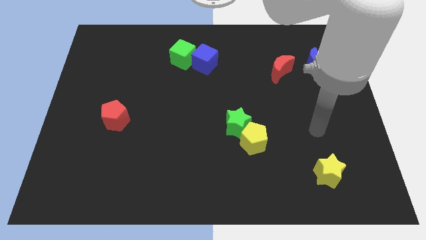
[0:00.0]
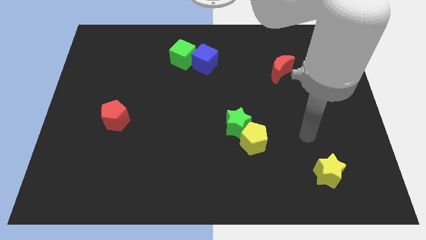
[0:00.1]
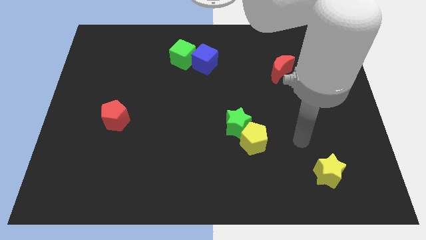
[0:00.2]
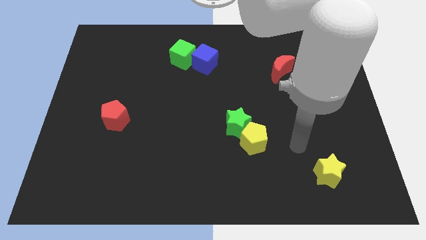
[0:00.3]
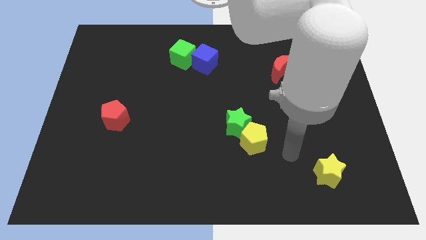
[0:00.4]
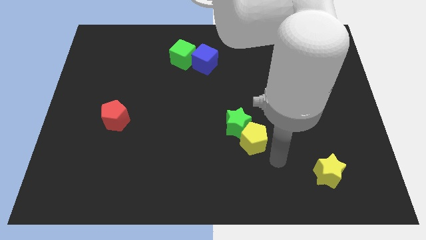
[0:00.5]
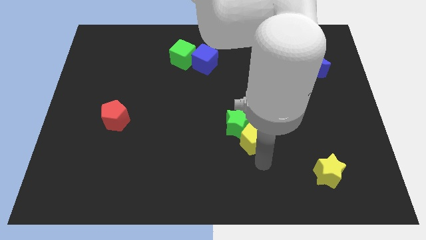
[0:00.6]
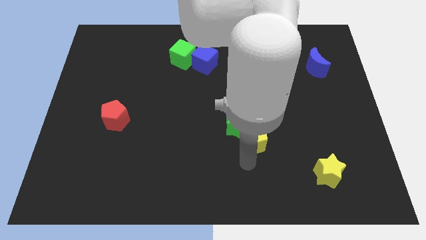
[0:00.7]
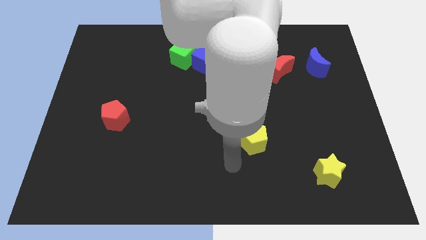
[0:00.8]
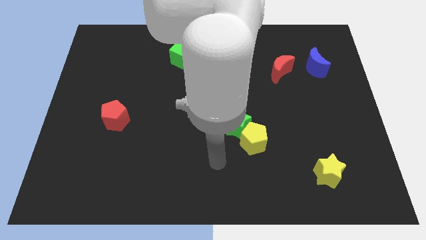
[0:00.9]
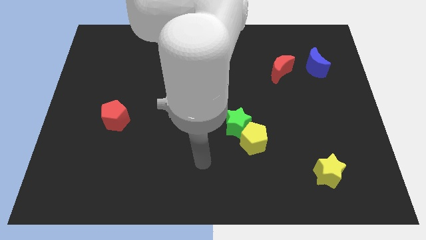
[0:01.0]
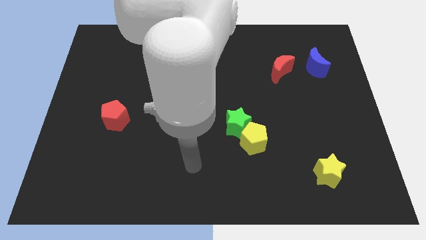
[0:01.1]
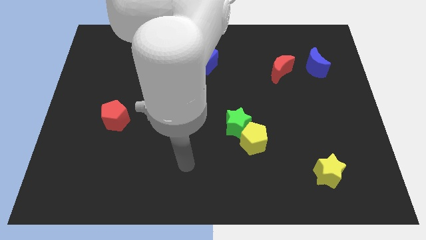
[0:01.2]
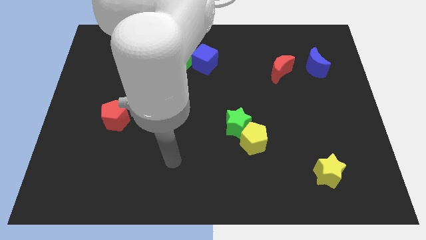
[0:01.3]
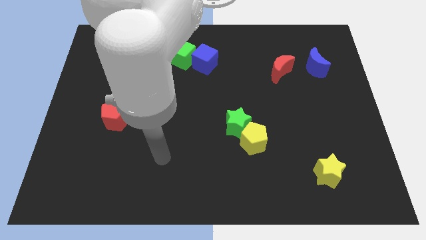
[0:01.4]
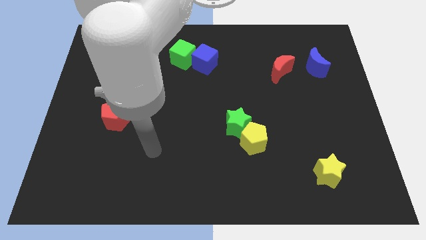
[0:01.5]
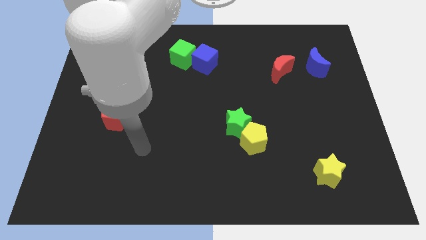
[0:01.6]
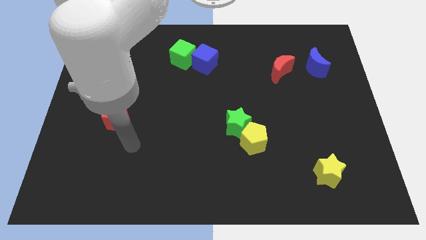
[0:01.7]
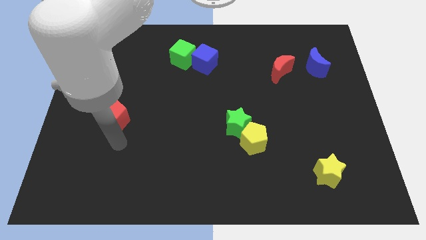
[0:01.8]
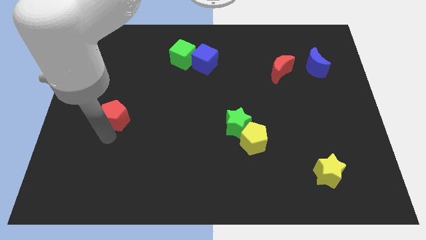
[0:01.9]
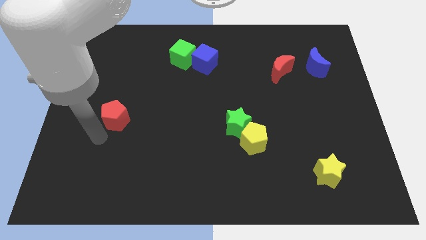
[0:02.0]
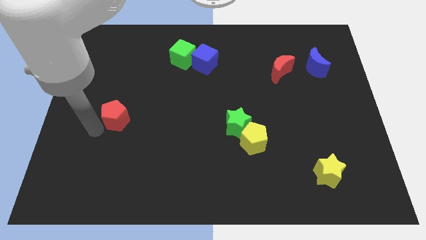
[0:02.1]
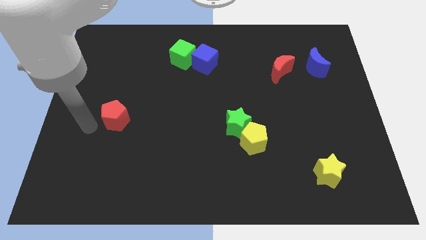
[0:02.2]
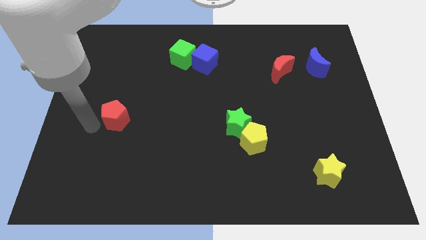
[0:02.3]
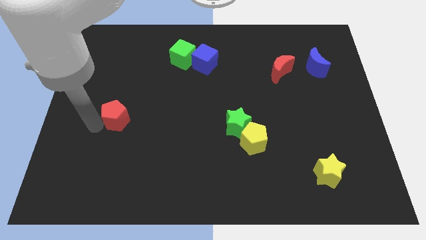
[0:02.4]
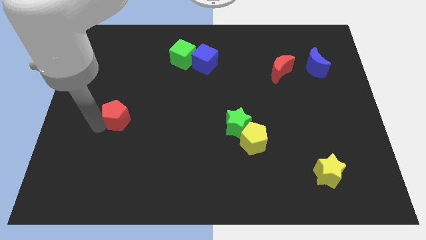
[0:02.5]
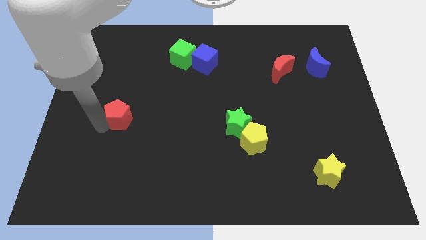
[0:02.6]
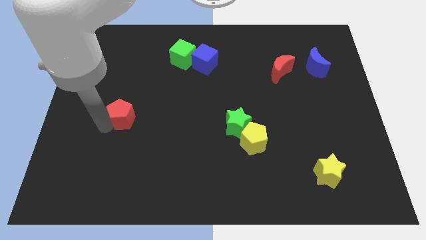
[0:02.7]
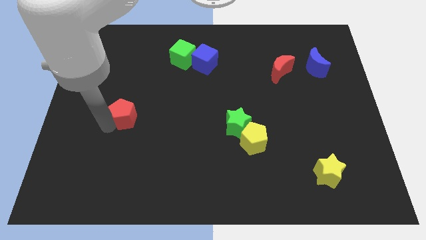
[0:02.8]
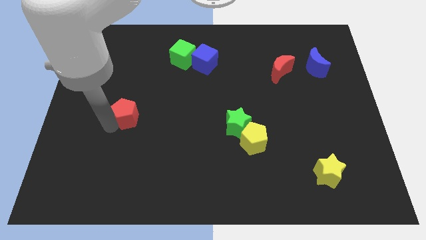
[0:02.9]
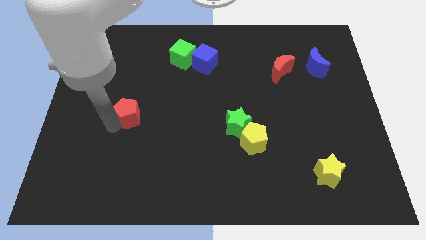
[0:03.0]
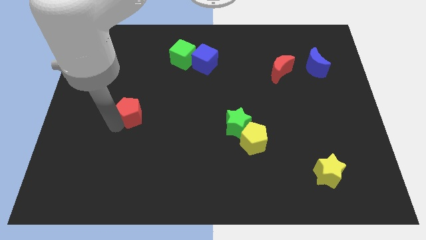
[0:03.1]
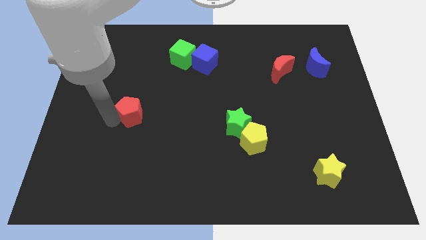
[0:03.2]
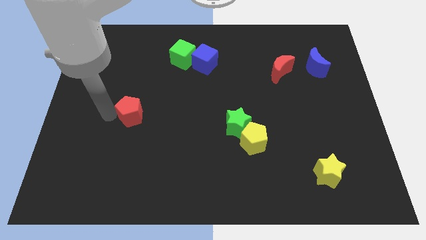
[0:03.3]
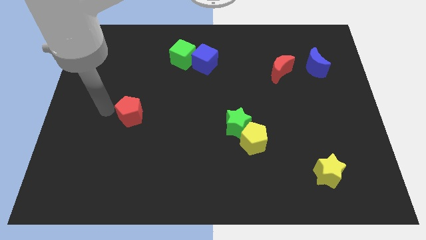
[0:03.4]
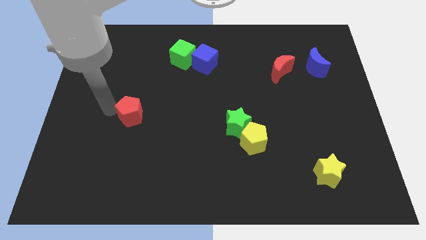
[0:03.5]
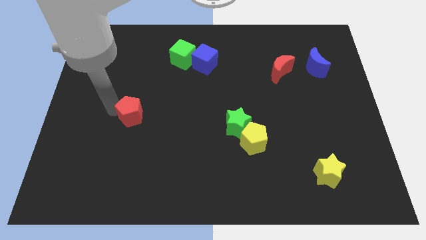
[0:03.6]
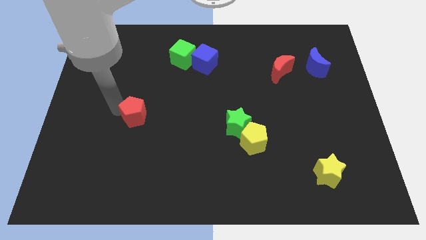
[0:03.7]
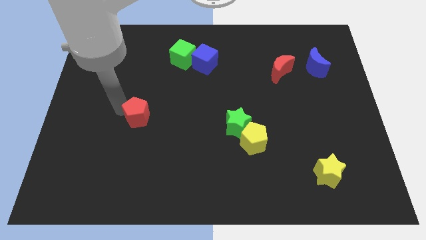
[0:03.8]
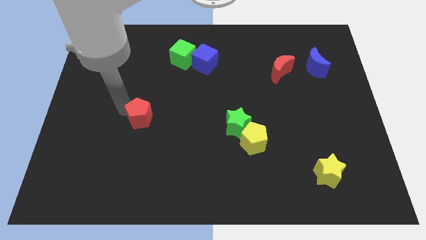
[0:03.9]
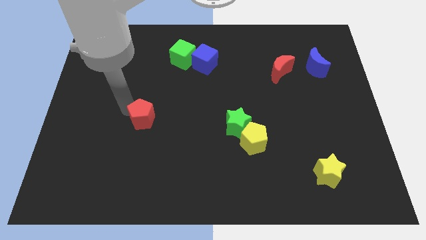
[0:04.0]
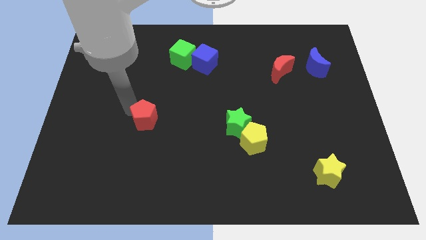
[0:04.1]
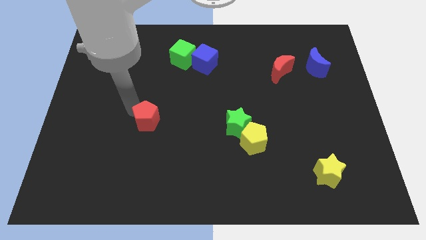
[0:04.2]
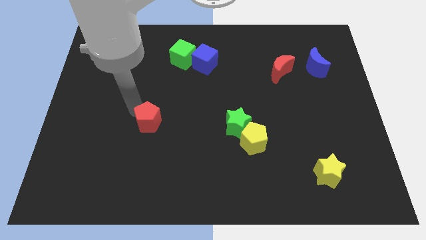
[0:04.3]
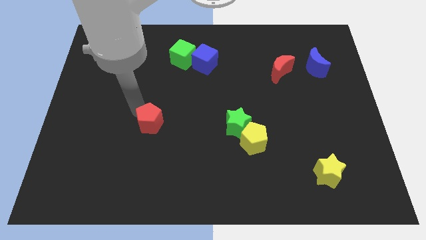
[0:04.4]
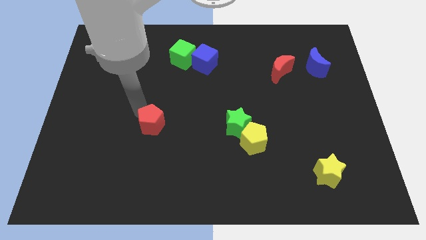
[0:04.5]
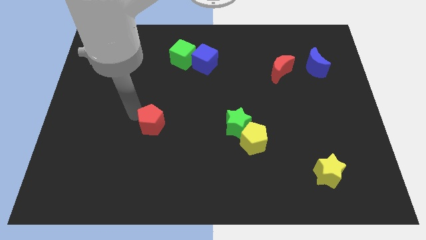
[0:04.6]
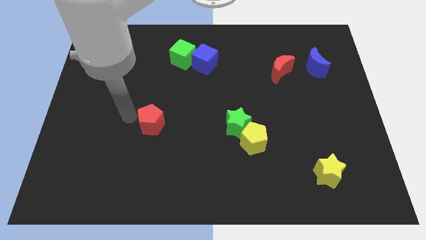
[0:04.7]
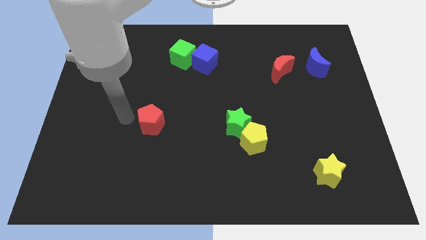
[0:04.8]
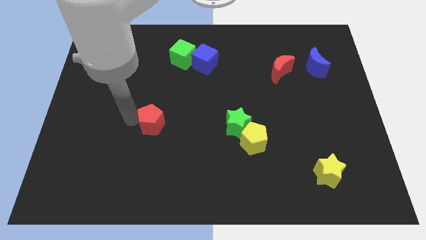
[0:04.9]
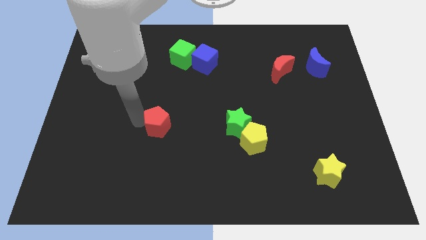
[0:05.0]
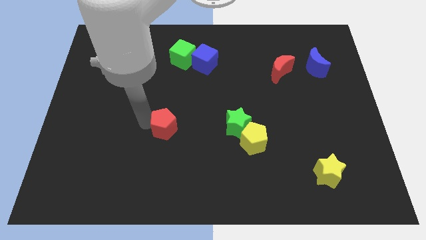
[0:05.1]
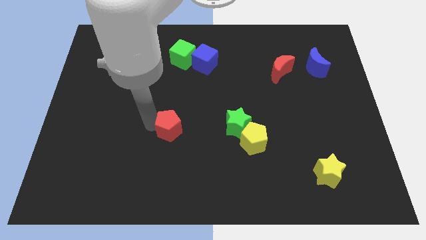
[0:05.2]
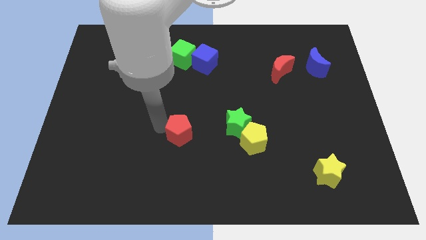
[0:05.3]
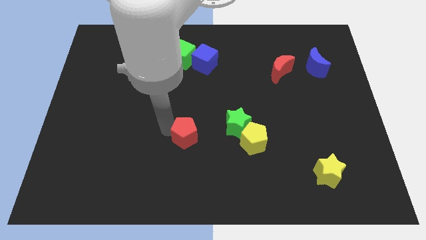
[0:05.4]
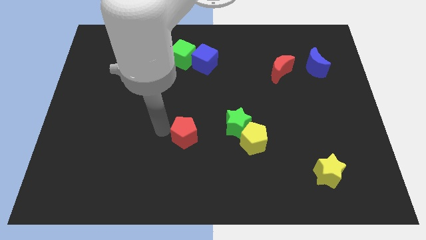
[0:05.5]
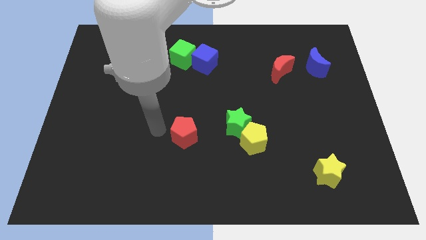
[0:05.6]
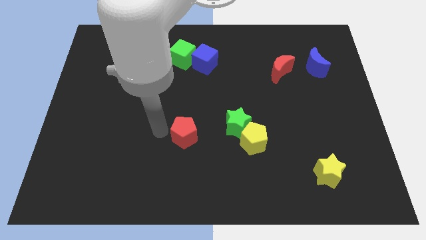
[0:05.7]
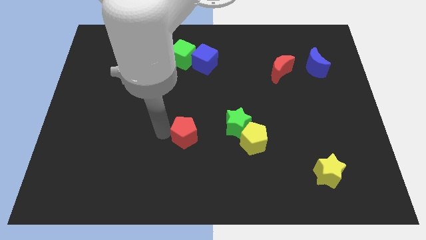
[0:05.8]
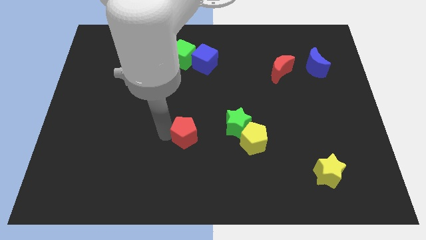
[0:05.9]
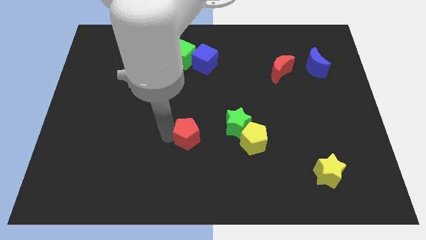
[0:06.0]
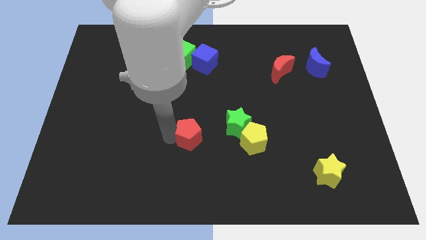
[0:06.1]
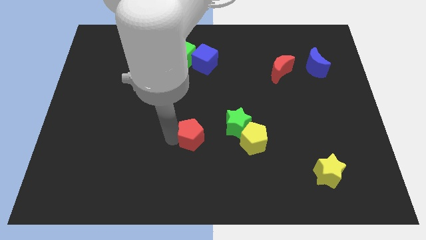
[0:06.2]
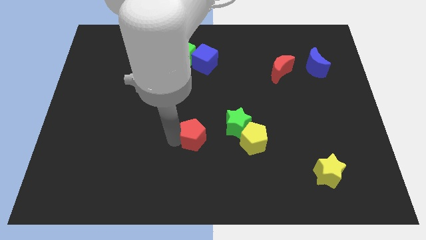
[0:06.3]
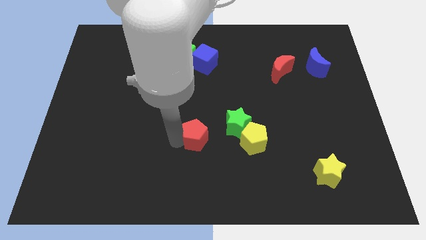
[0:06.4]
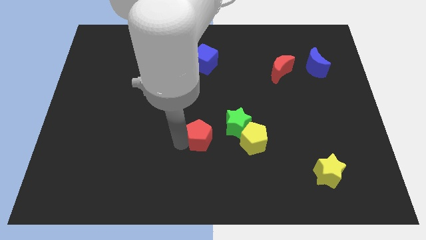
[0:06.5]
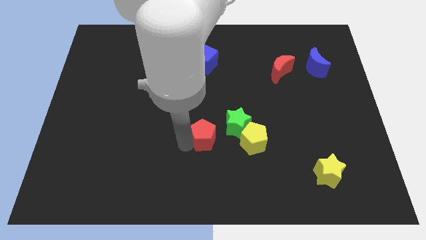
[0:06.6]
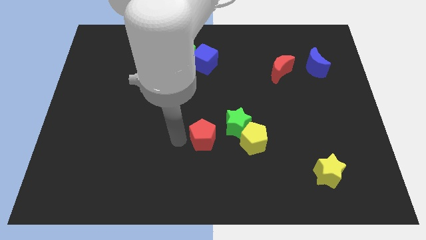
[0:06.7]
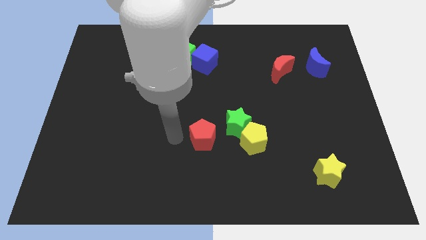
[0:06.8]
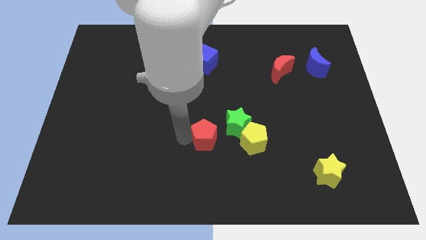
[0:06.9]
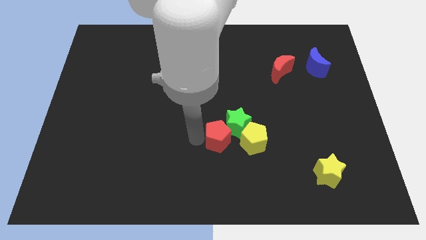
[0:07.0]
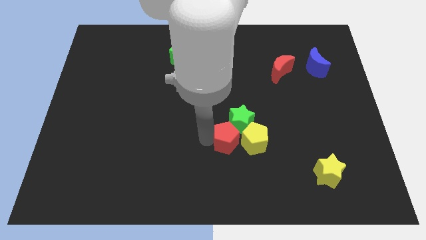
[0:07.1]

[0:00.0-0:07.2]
put the red pentagon towards the yellow pentagon
